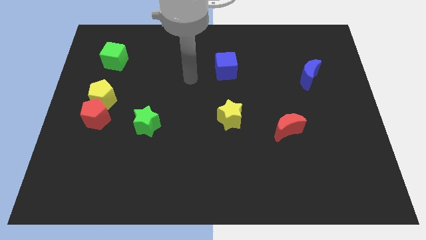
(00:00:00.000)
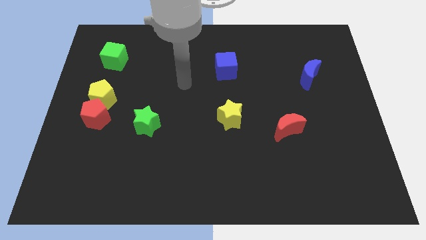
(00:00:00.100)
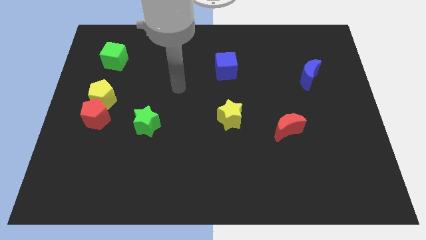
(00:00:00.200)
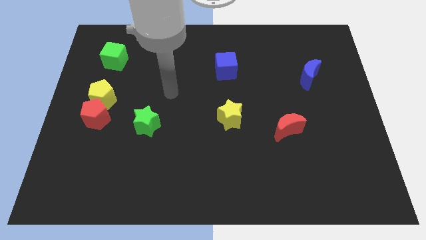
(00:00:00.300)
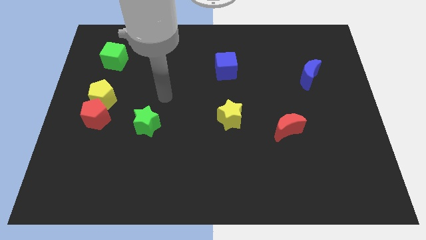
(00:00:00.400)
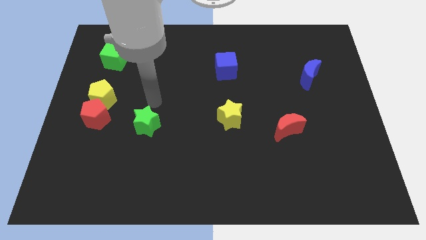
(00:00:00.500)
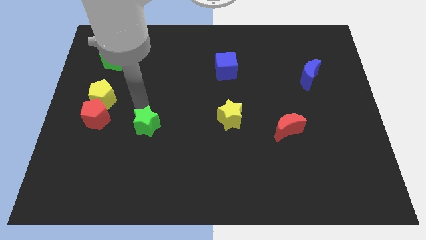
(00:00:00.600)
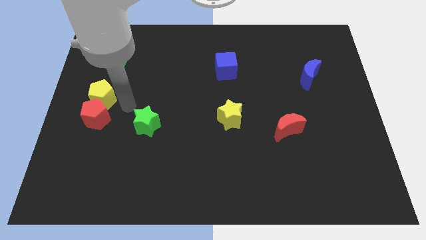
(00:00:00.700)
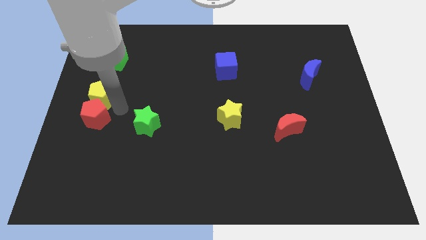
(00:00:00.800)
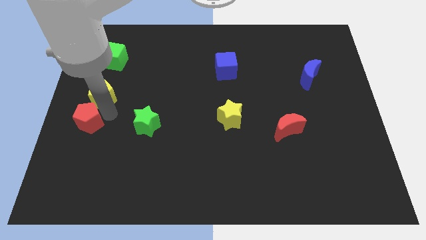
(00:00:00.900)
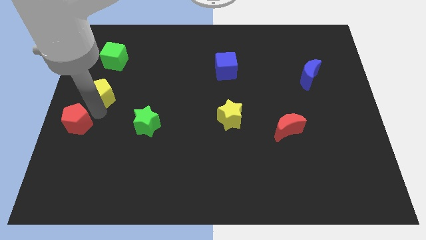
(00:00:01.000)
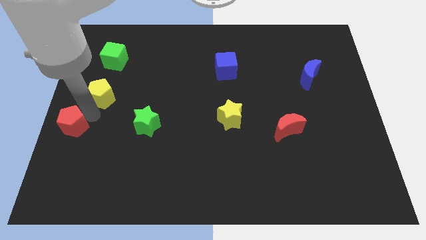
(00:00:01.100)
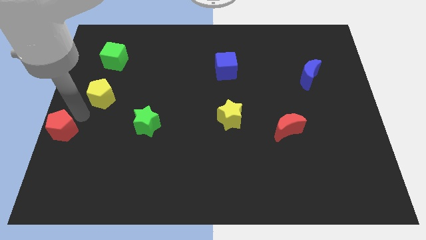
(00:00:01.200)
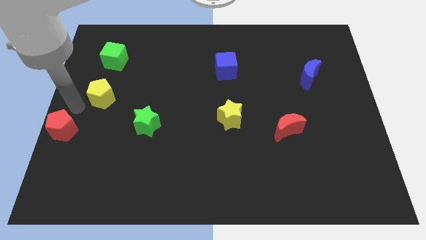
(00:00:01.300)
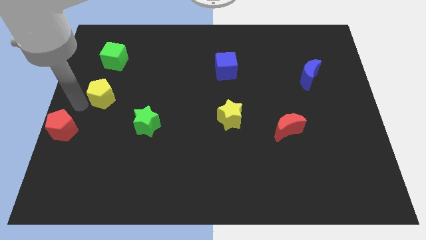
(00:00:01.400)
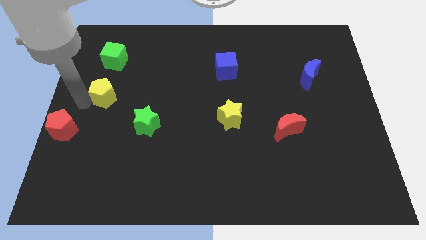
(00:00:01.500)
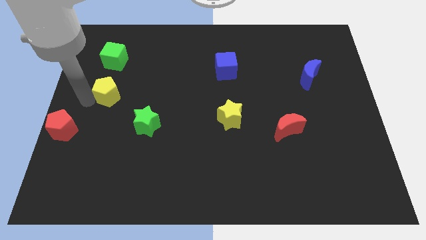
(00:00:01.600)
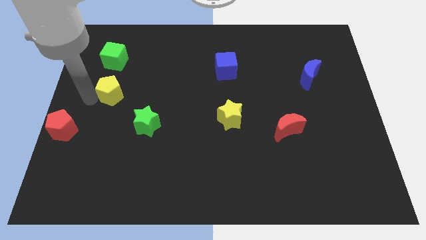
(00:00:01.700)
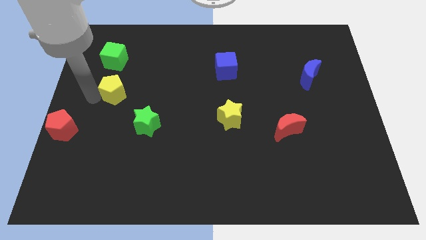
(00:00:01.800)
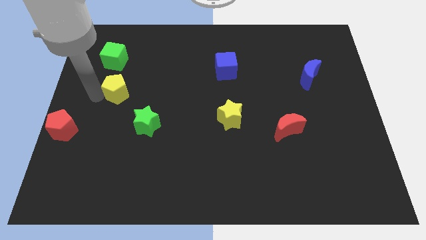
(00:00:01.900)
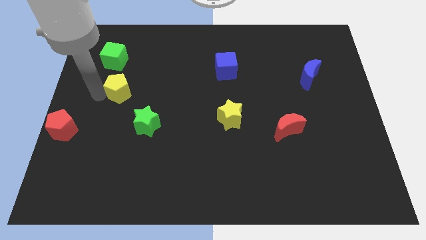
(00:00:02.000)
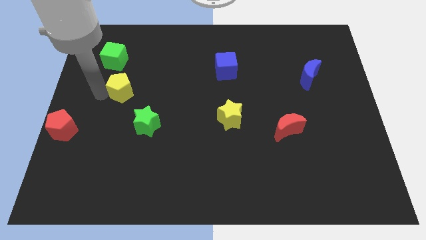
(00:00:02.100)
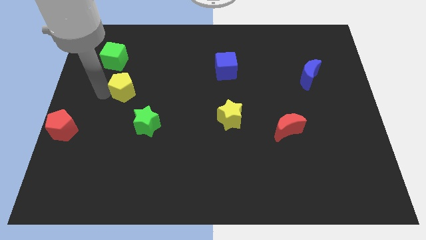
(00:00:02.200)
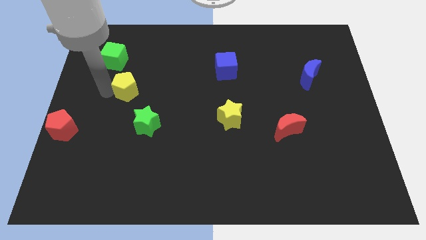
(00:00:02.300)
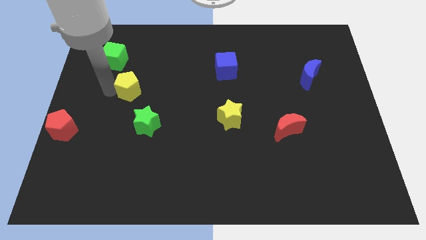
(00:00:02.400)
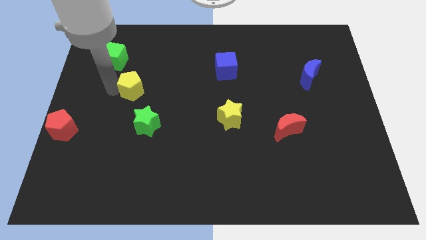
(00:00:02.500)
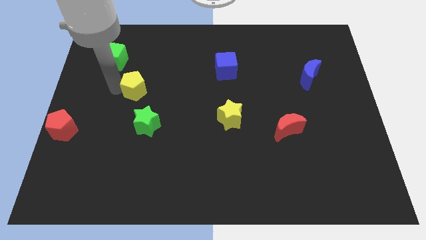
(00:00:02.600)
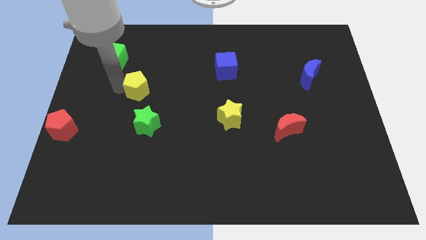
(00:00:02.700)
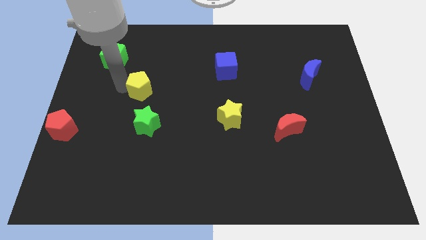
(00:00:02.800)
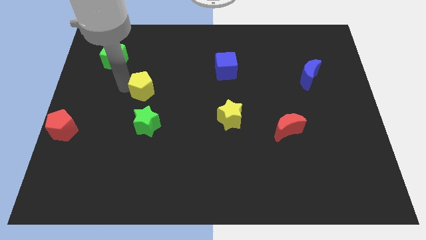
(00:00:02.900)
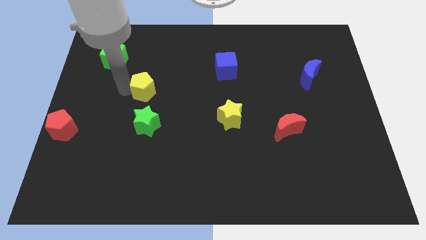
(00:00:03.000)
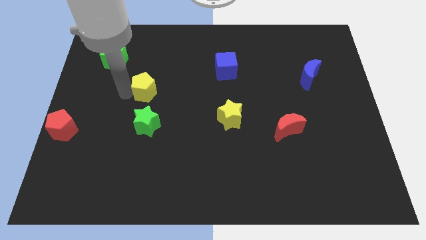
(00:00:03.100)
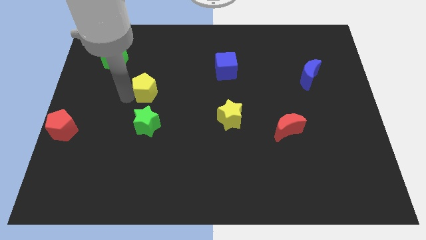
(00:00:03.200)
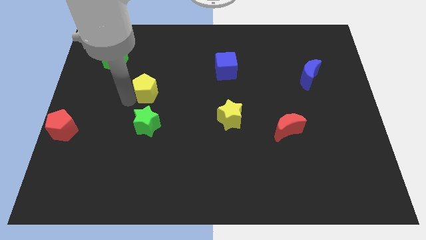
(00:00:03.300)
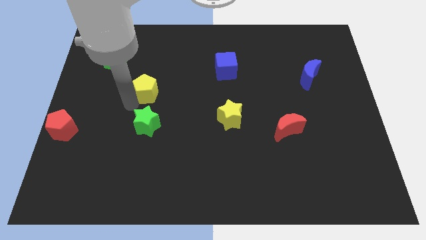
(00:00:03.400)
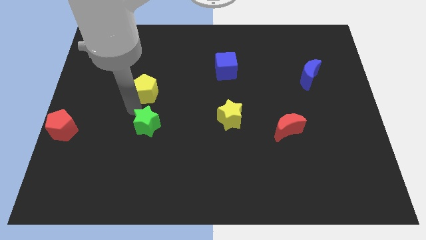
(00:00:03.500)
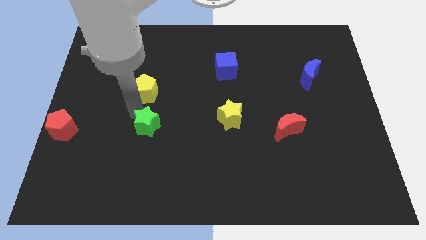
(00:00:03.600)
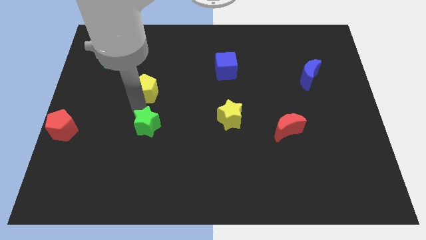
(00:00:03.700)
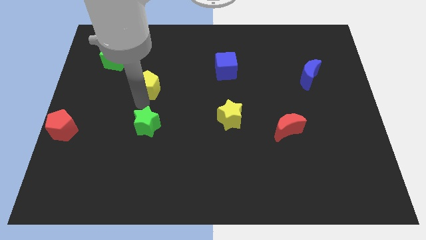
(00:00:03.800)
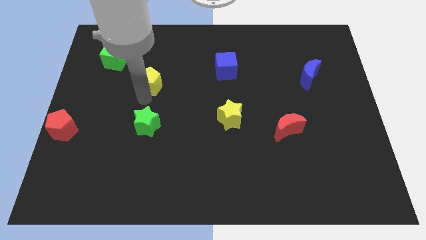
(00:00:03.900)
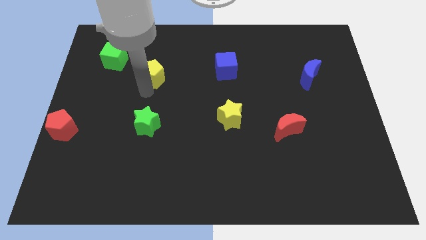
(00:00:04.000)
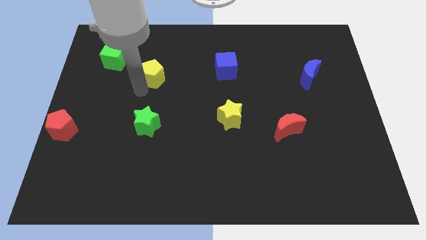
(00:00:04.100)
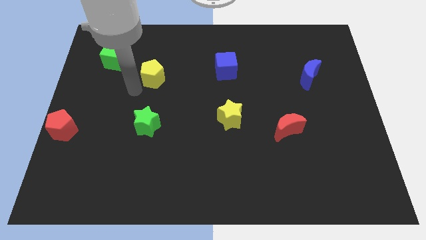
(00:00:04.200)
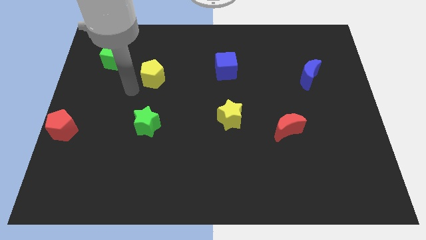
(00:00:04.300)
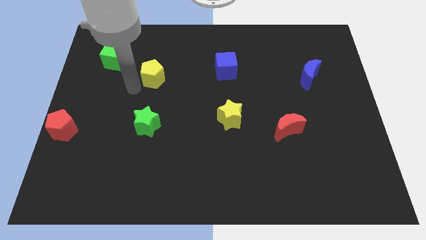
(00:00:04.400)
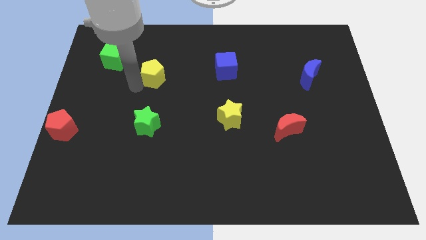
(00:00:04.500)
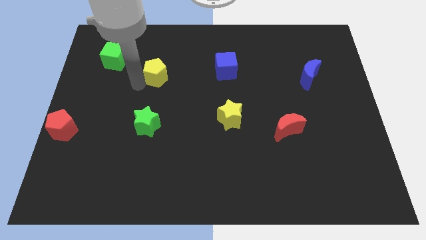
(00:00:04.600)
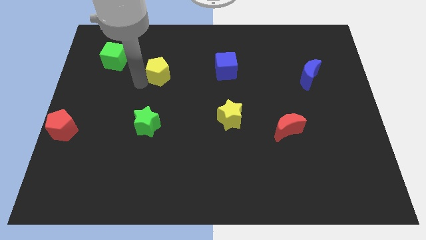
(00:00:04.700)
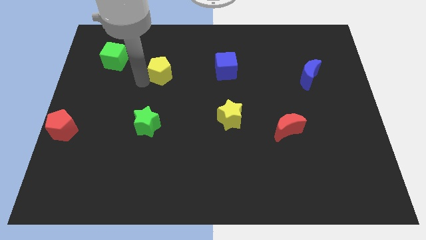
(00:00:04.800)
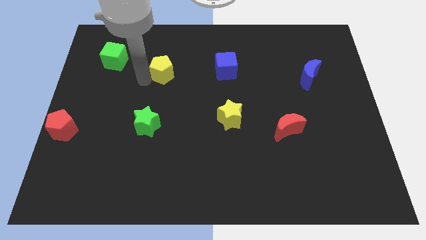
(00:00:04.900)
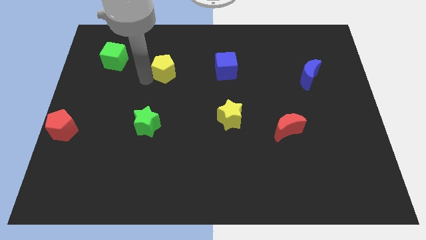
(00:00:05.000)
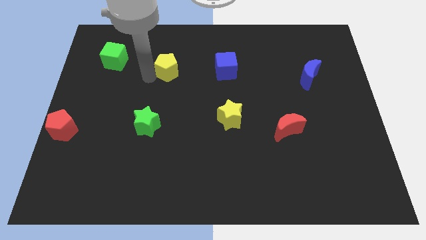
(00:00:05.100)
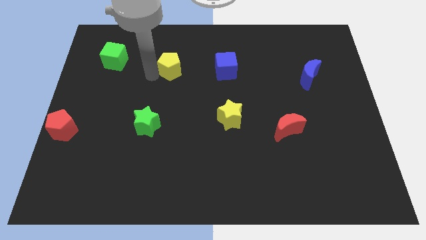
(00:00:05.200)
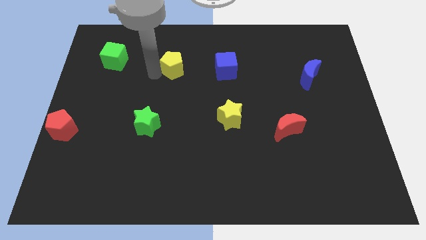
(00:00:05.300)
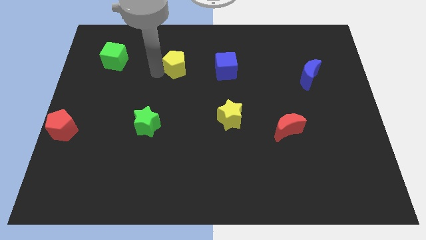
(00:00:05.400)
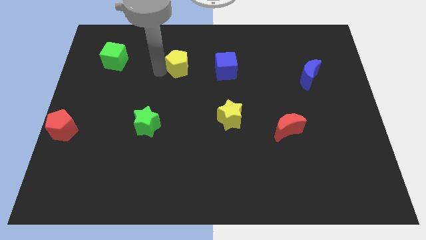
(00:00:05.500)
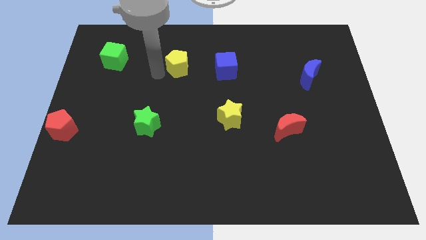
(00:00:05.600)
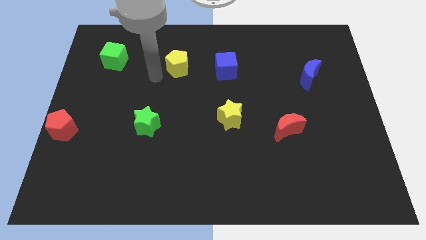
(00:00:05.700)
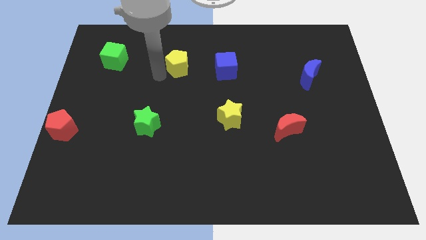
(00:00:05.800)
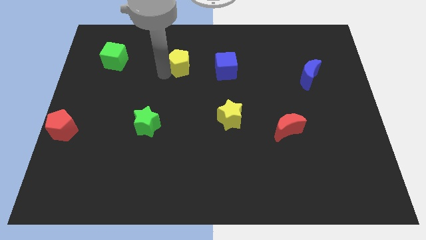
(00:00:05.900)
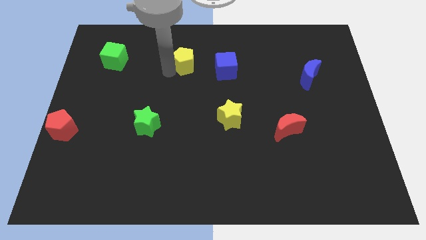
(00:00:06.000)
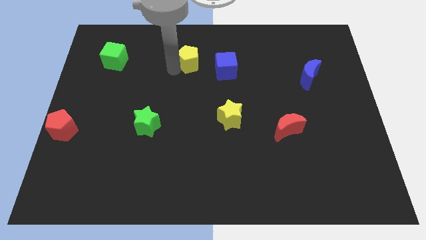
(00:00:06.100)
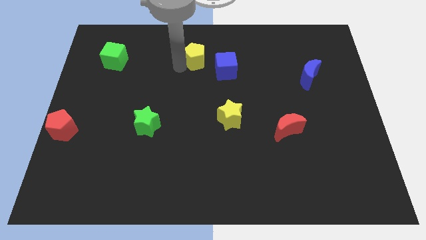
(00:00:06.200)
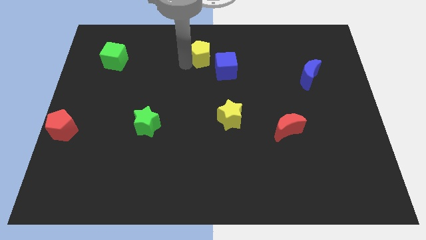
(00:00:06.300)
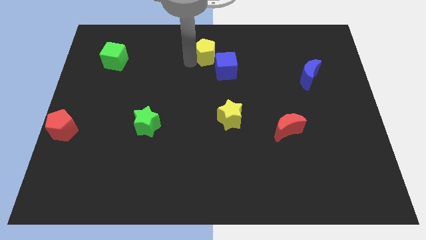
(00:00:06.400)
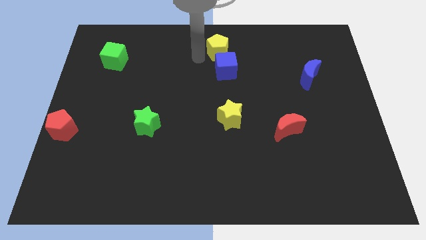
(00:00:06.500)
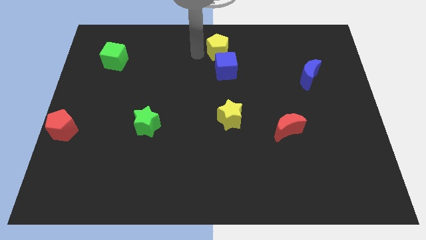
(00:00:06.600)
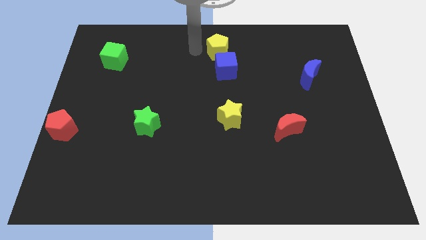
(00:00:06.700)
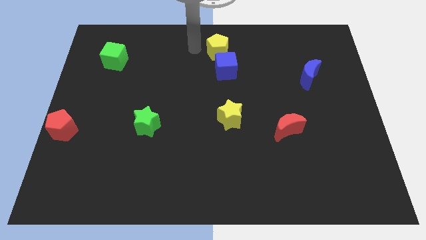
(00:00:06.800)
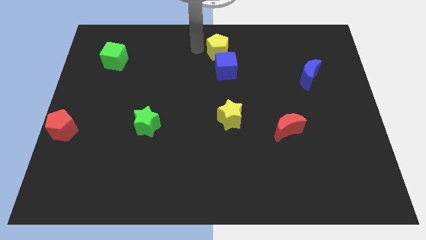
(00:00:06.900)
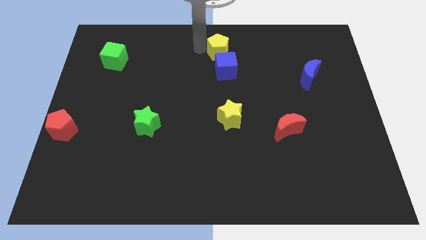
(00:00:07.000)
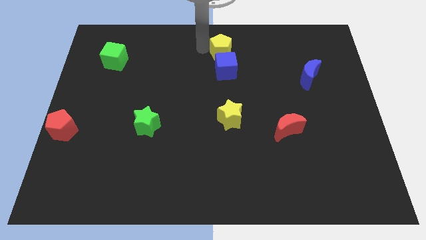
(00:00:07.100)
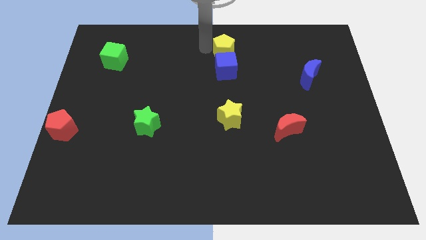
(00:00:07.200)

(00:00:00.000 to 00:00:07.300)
slide the yellow pentagon to the top right of the blue cube
